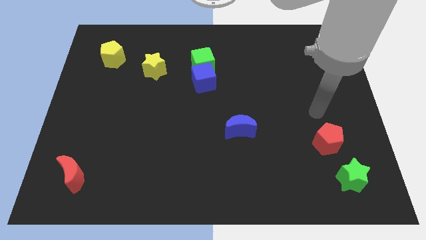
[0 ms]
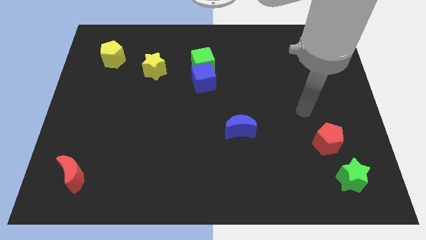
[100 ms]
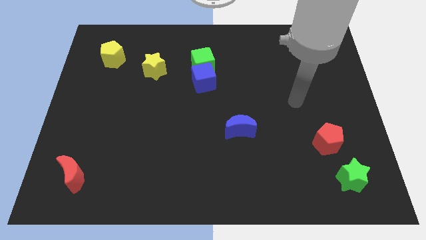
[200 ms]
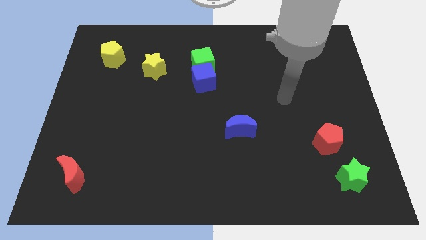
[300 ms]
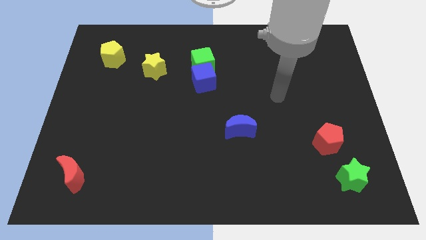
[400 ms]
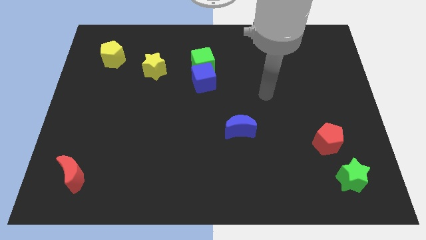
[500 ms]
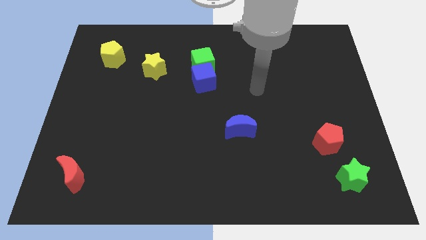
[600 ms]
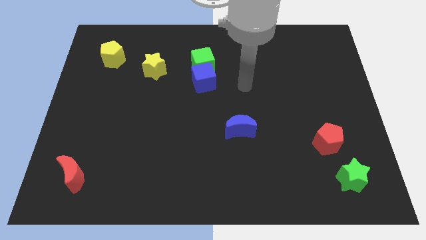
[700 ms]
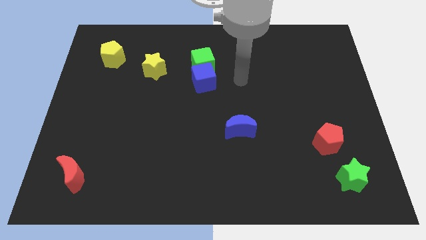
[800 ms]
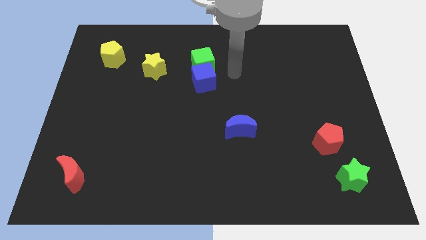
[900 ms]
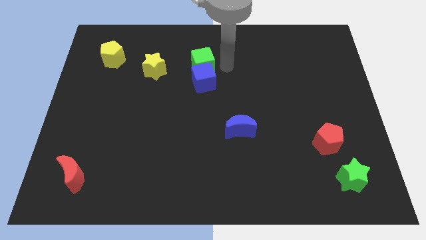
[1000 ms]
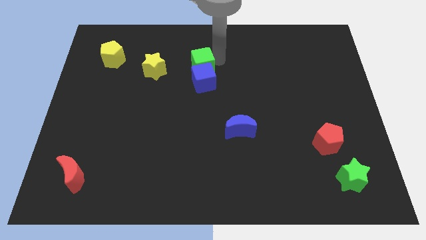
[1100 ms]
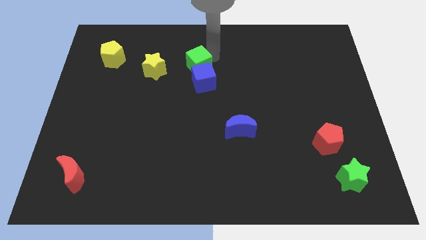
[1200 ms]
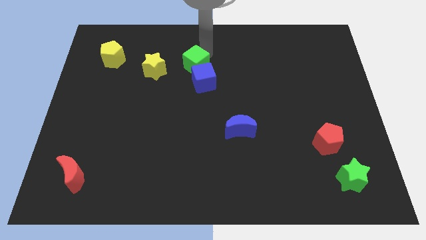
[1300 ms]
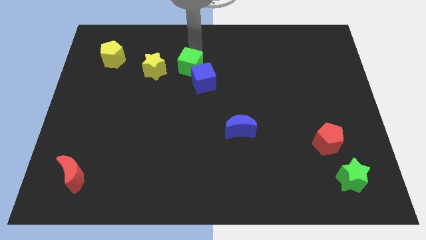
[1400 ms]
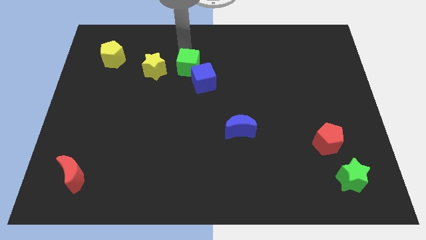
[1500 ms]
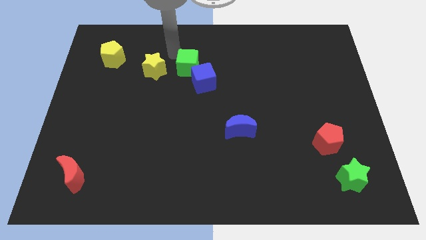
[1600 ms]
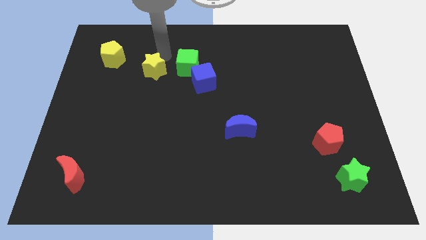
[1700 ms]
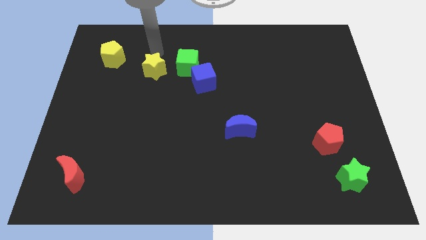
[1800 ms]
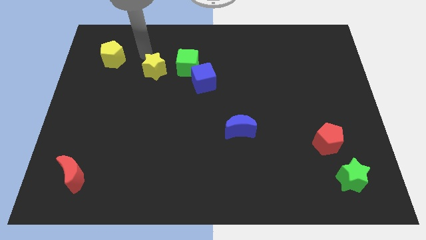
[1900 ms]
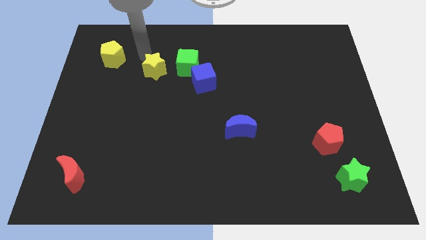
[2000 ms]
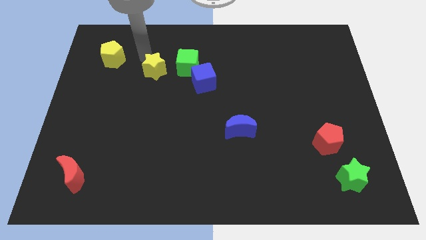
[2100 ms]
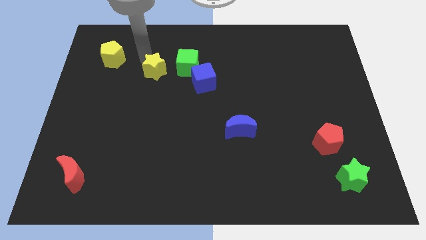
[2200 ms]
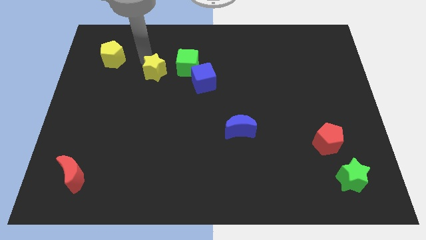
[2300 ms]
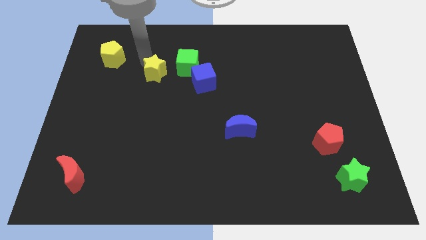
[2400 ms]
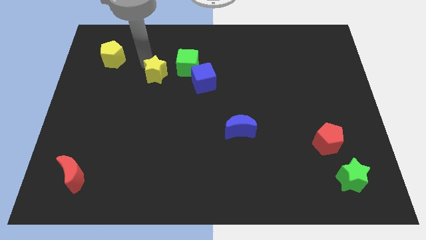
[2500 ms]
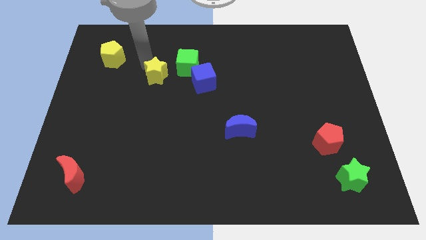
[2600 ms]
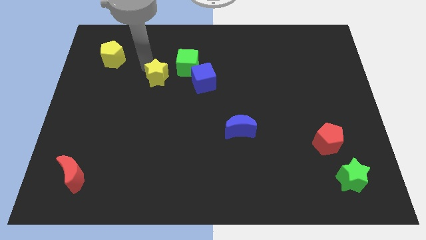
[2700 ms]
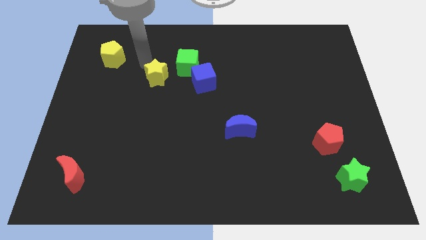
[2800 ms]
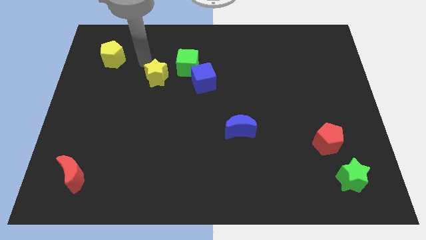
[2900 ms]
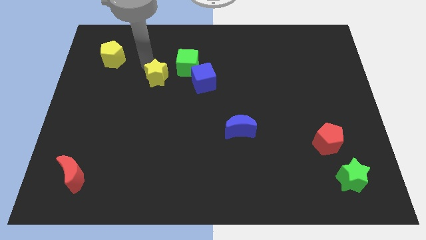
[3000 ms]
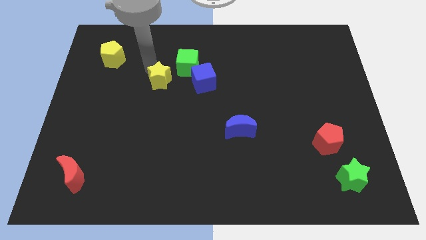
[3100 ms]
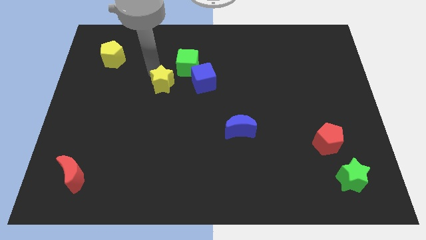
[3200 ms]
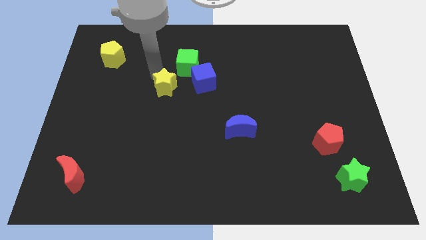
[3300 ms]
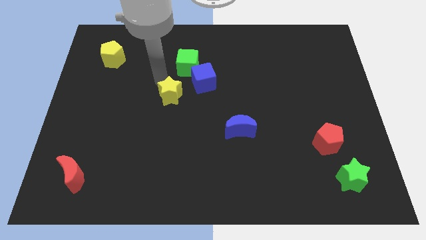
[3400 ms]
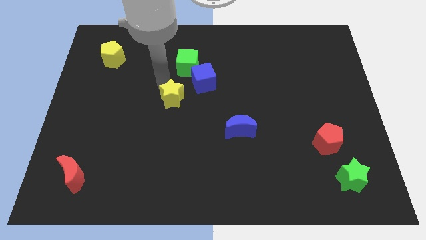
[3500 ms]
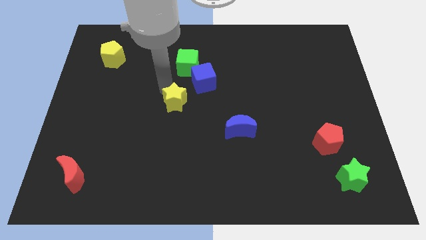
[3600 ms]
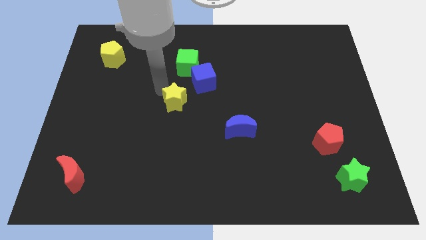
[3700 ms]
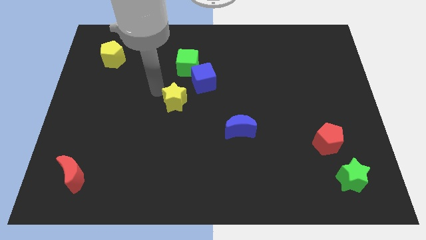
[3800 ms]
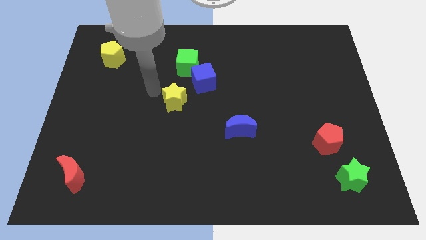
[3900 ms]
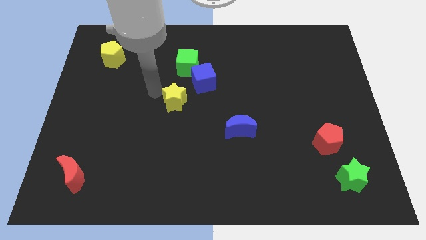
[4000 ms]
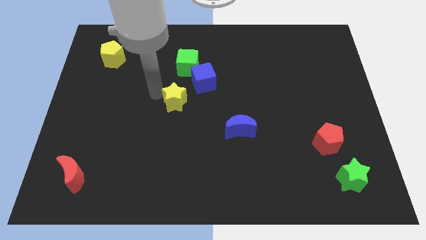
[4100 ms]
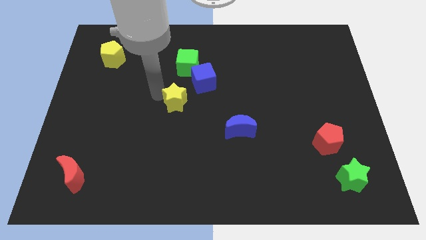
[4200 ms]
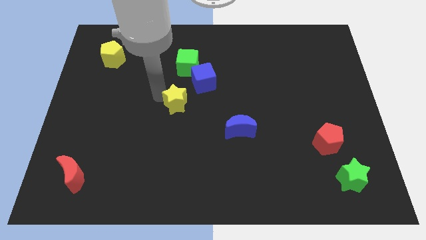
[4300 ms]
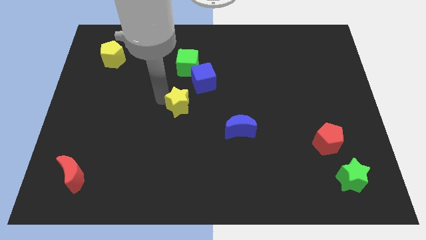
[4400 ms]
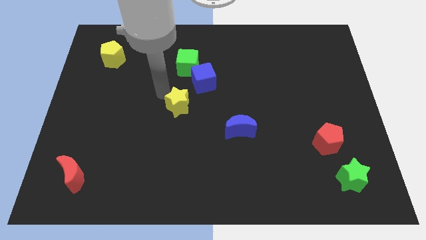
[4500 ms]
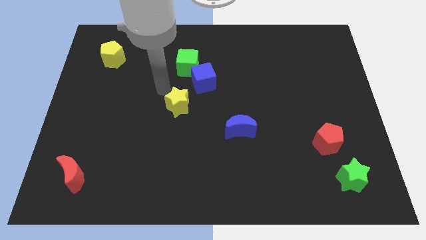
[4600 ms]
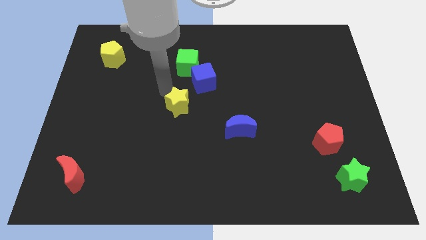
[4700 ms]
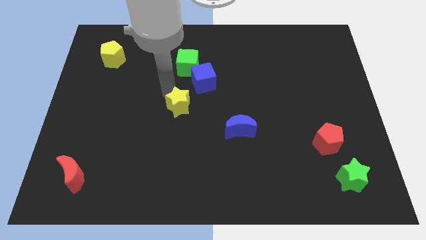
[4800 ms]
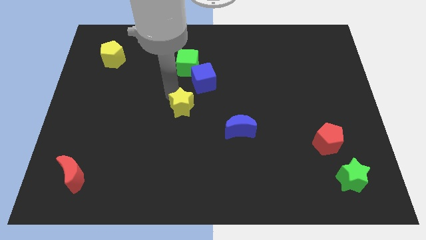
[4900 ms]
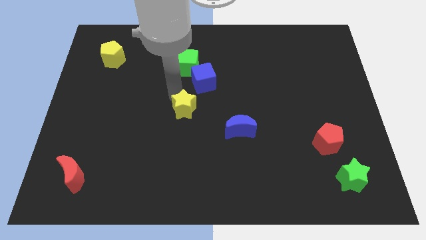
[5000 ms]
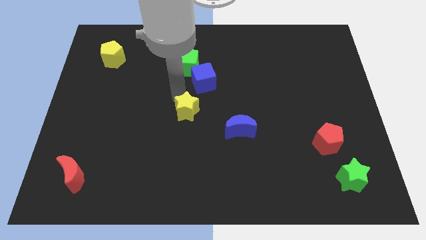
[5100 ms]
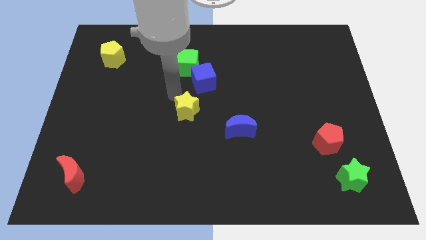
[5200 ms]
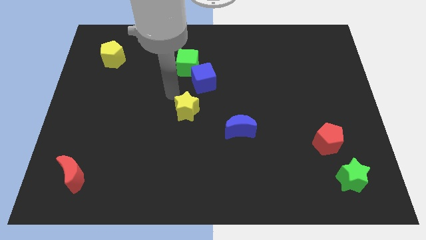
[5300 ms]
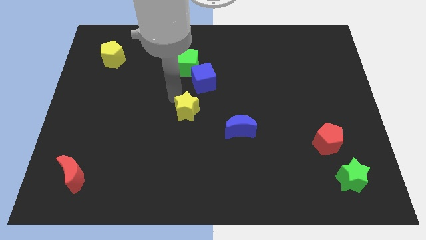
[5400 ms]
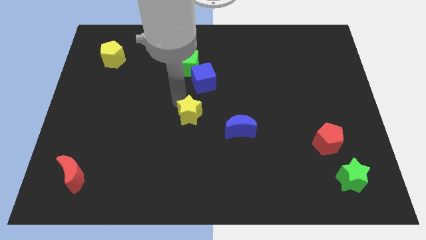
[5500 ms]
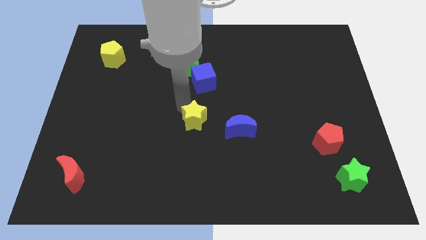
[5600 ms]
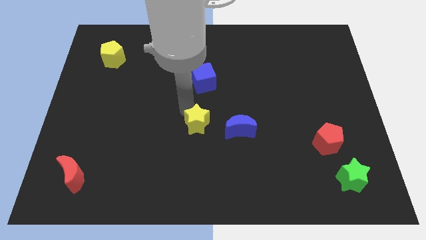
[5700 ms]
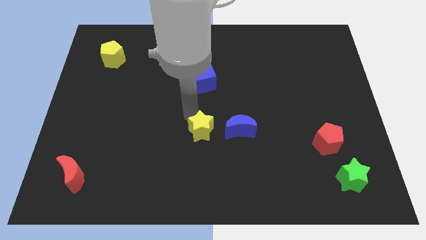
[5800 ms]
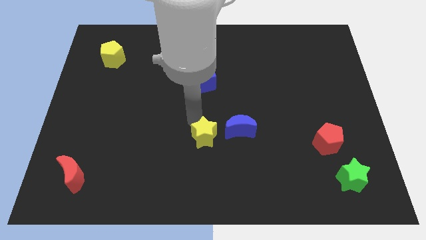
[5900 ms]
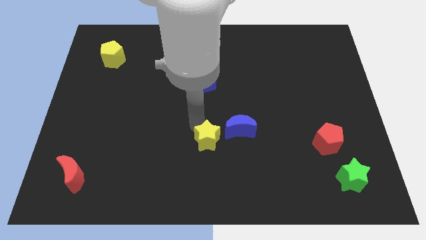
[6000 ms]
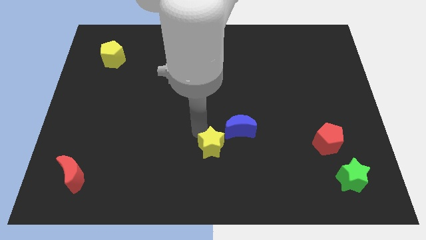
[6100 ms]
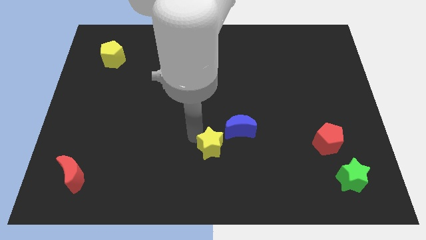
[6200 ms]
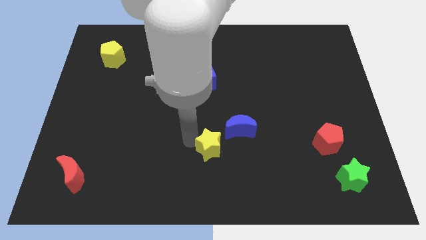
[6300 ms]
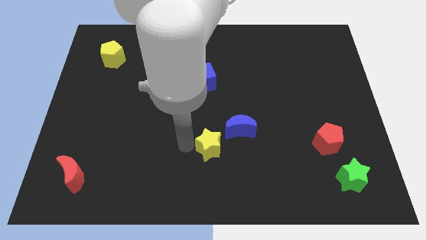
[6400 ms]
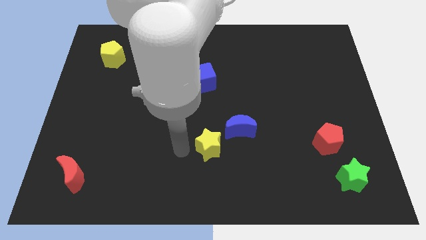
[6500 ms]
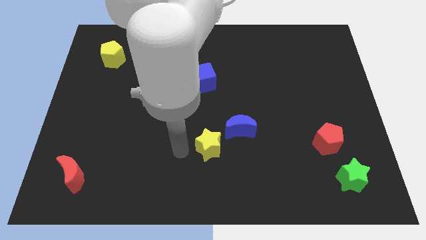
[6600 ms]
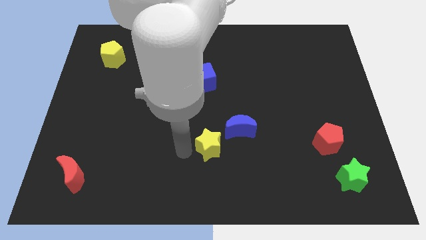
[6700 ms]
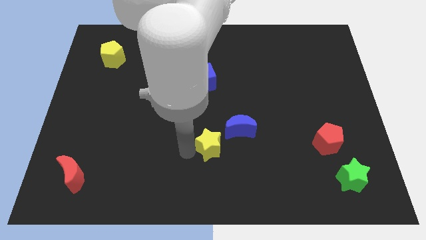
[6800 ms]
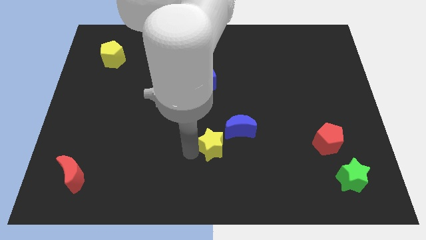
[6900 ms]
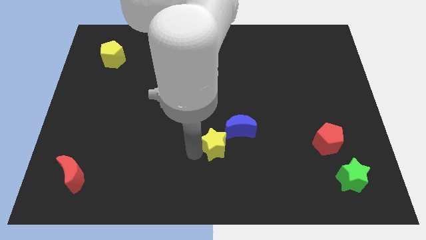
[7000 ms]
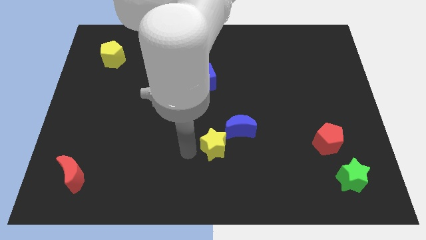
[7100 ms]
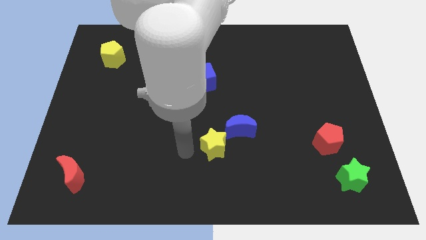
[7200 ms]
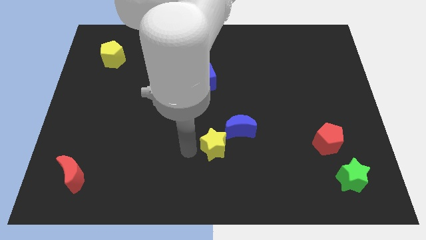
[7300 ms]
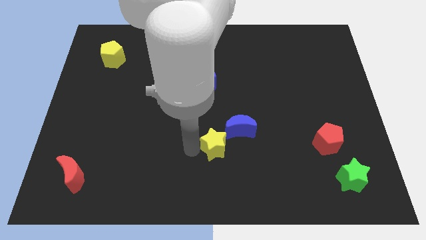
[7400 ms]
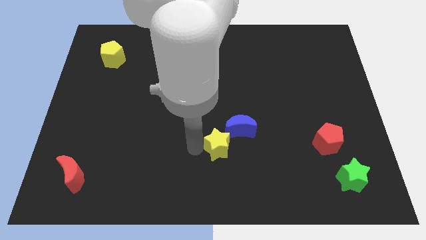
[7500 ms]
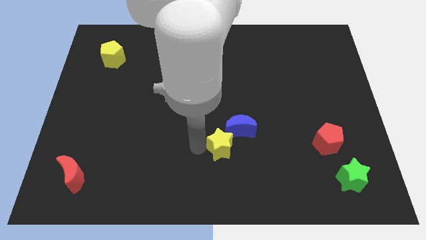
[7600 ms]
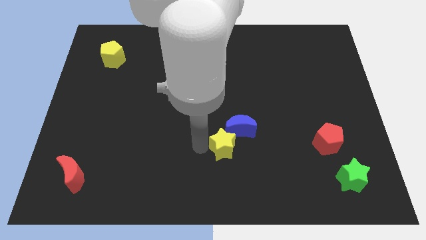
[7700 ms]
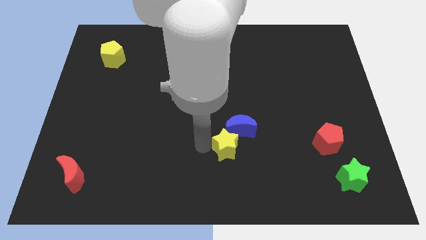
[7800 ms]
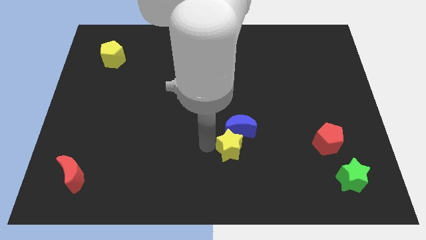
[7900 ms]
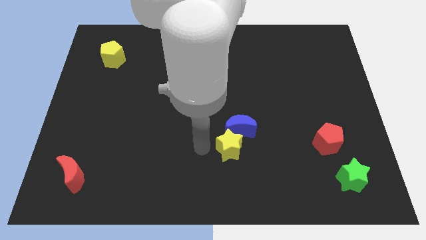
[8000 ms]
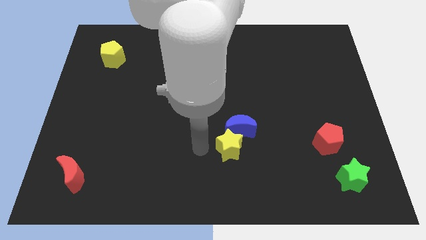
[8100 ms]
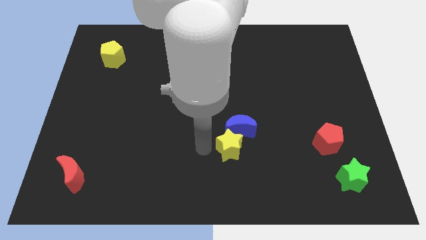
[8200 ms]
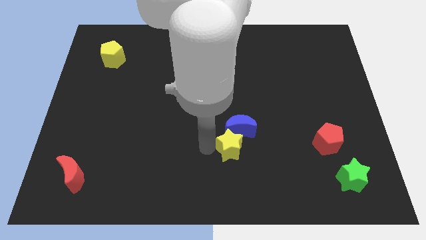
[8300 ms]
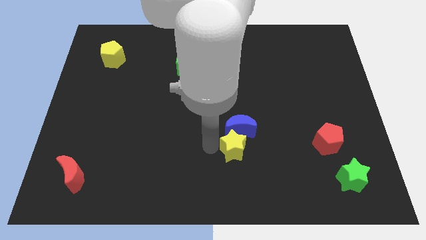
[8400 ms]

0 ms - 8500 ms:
slide the yellow star diagonally down and to the right of the blue moon
